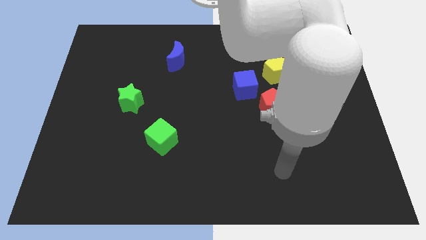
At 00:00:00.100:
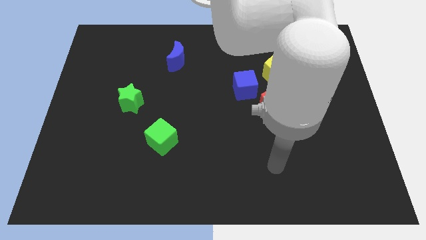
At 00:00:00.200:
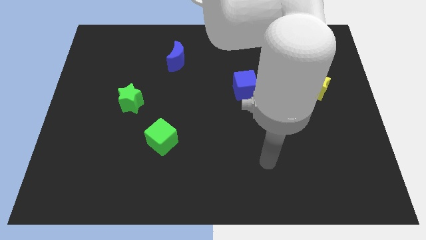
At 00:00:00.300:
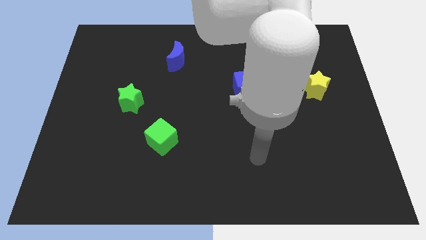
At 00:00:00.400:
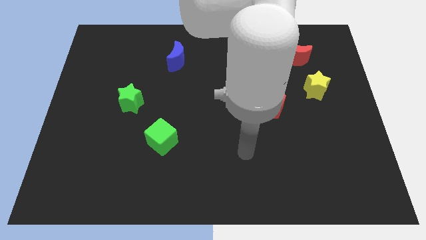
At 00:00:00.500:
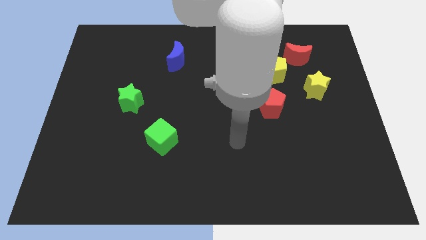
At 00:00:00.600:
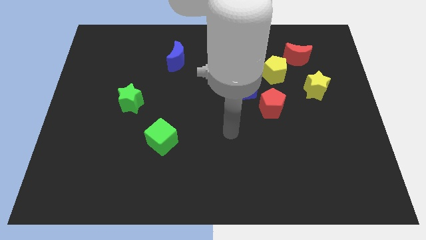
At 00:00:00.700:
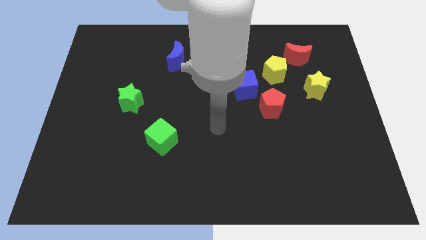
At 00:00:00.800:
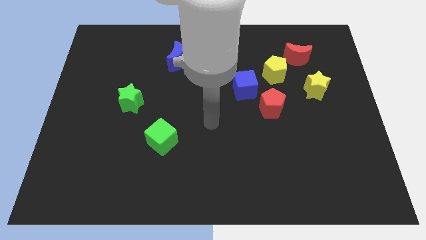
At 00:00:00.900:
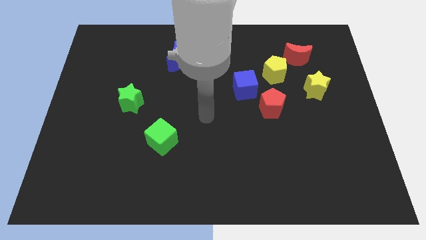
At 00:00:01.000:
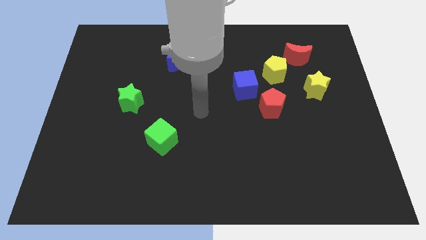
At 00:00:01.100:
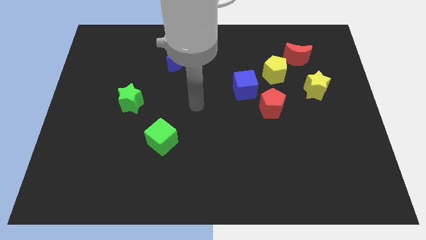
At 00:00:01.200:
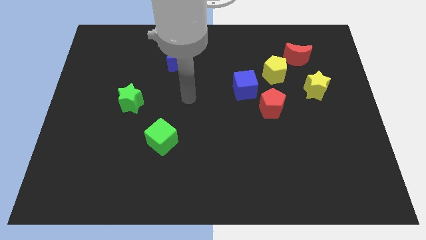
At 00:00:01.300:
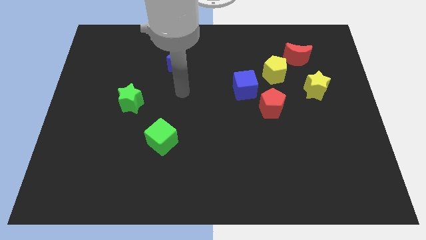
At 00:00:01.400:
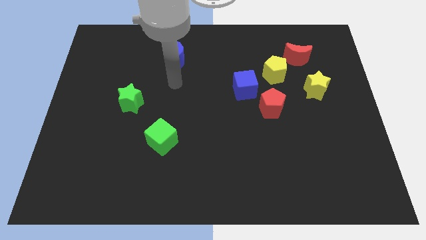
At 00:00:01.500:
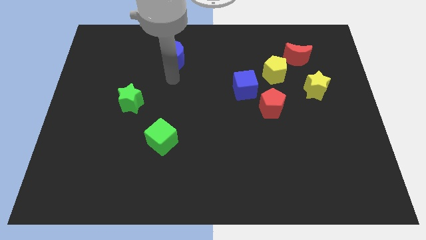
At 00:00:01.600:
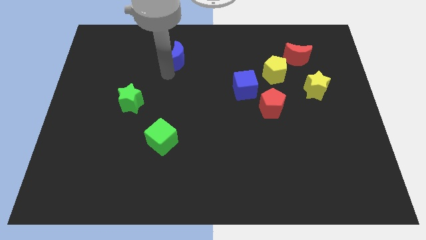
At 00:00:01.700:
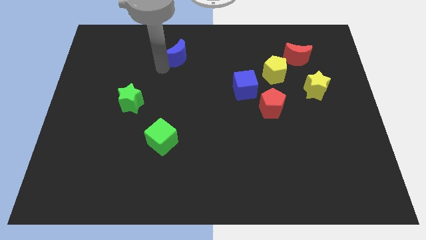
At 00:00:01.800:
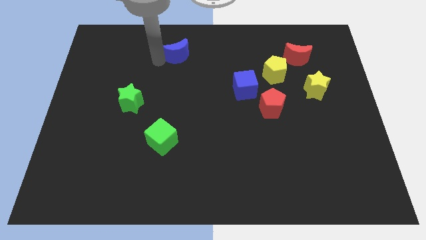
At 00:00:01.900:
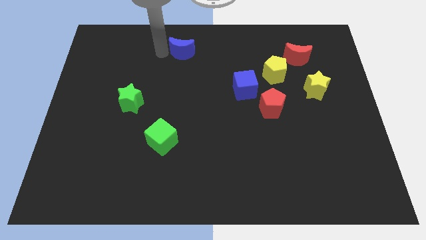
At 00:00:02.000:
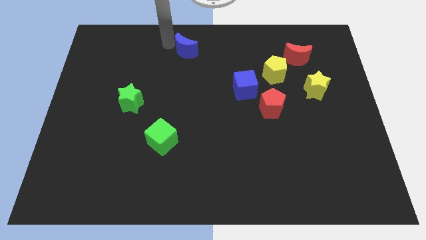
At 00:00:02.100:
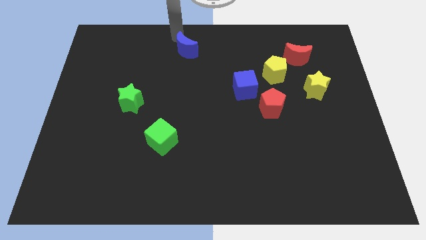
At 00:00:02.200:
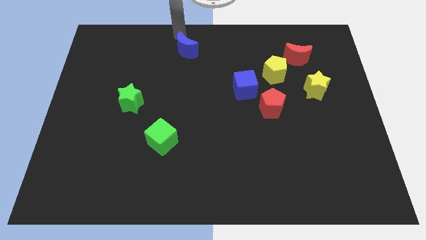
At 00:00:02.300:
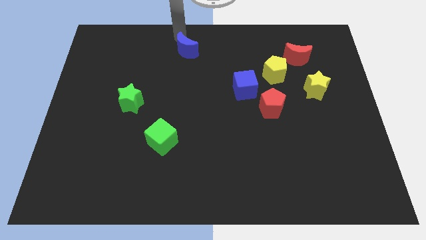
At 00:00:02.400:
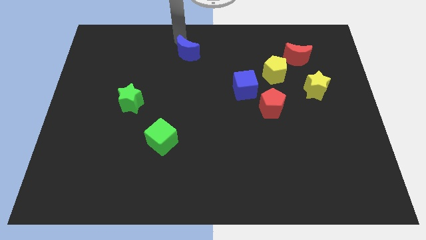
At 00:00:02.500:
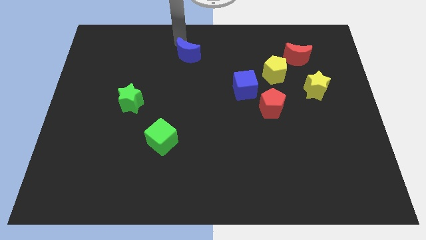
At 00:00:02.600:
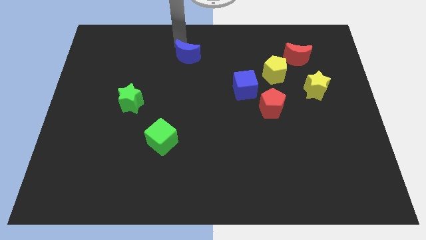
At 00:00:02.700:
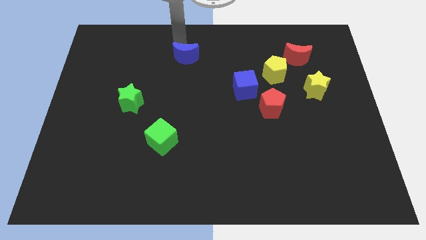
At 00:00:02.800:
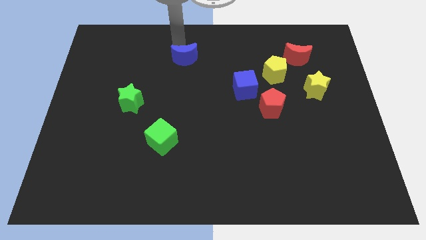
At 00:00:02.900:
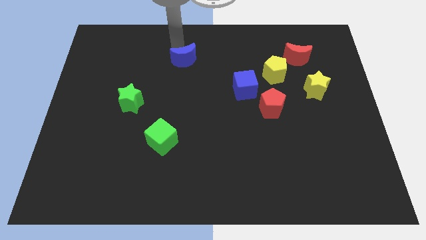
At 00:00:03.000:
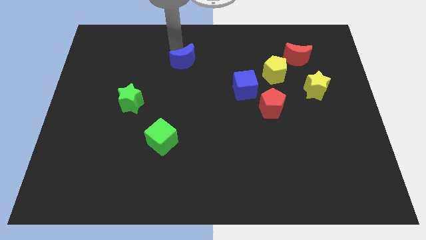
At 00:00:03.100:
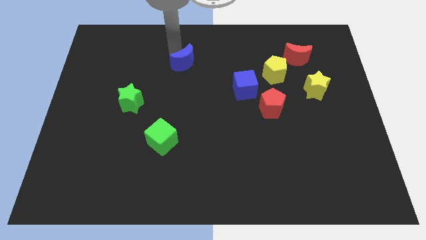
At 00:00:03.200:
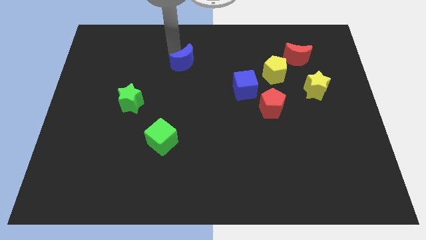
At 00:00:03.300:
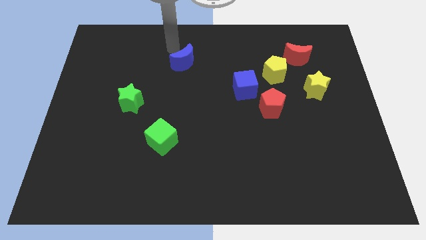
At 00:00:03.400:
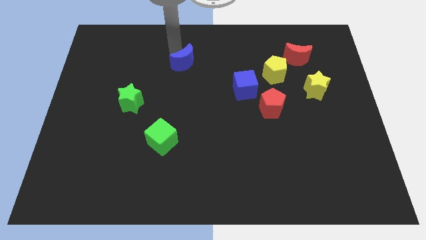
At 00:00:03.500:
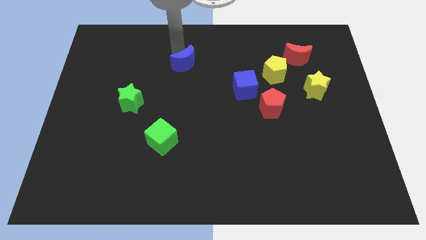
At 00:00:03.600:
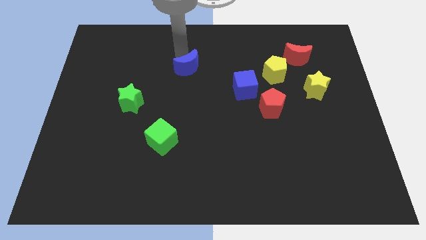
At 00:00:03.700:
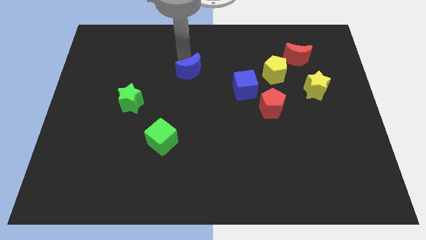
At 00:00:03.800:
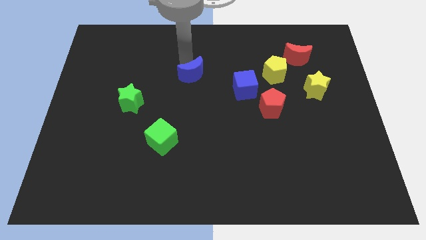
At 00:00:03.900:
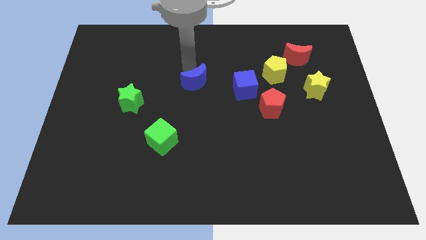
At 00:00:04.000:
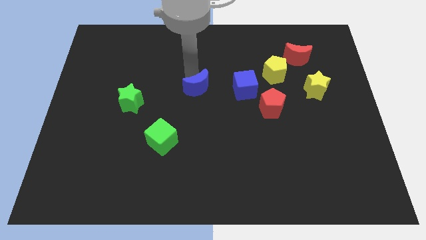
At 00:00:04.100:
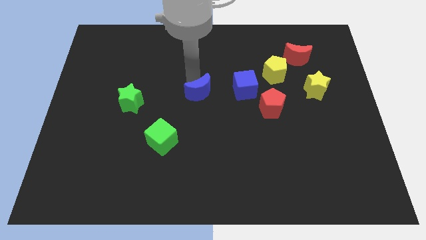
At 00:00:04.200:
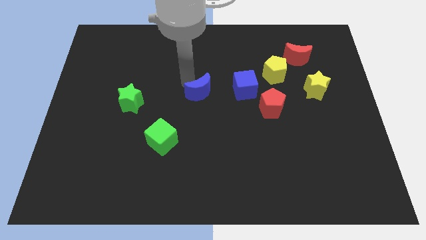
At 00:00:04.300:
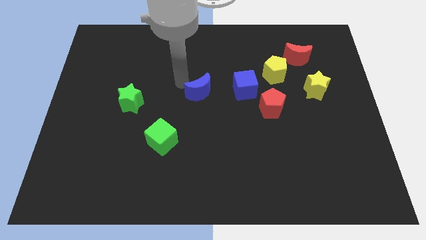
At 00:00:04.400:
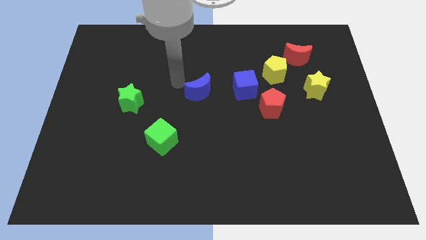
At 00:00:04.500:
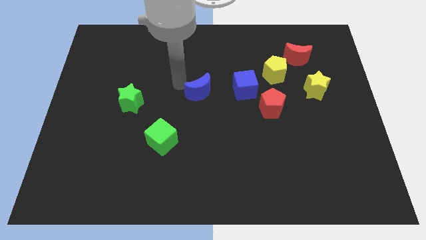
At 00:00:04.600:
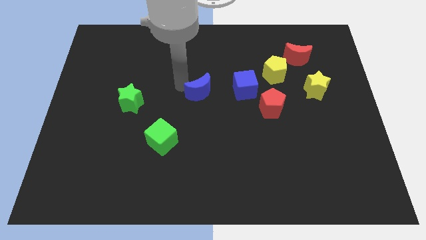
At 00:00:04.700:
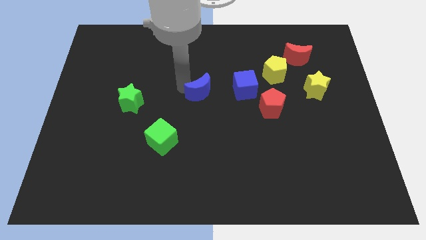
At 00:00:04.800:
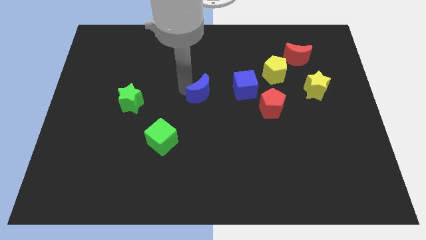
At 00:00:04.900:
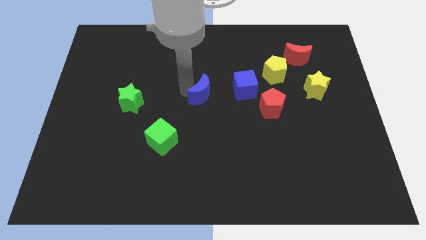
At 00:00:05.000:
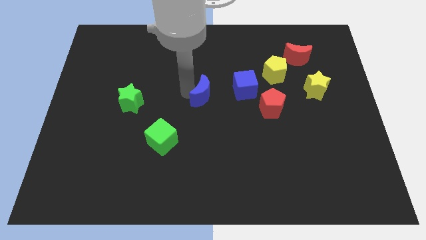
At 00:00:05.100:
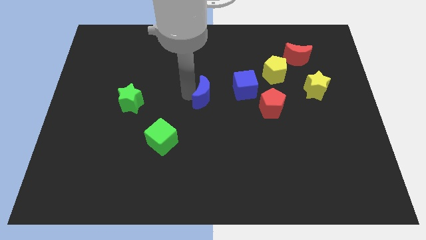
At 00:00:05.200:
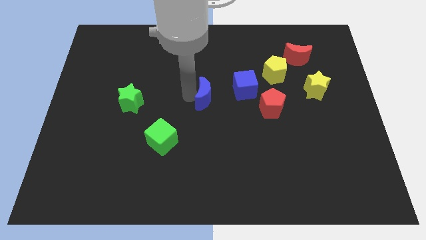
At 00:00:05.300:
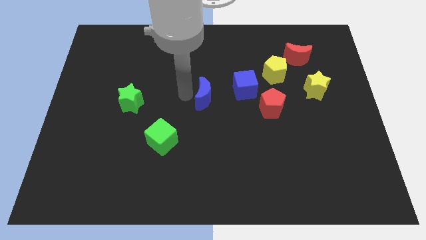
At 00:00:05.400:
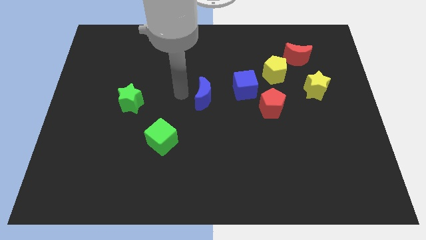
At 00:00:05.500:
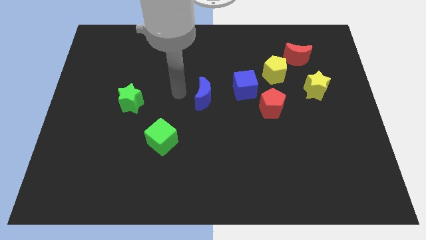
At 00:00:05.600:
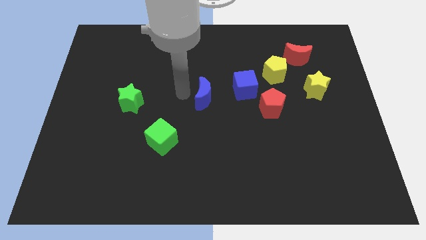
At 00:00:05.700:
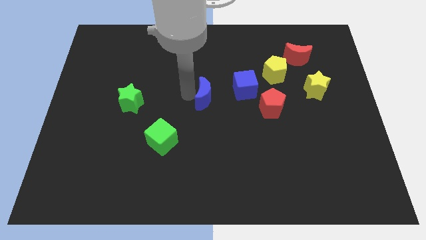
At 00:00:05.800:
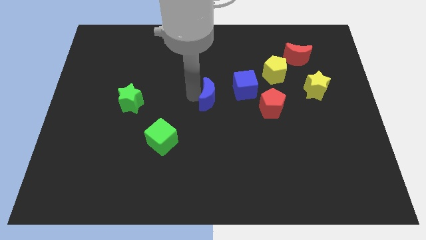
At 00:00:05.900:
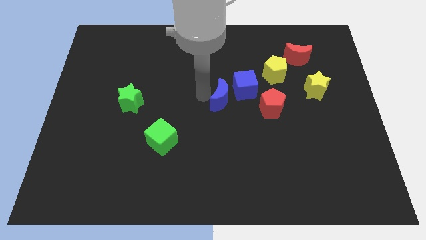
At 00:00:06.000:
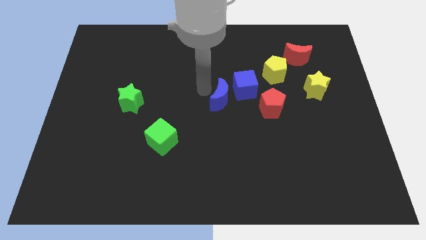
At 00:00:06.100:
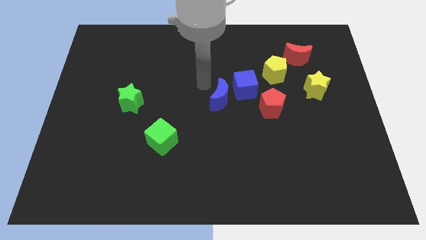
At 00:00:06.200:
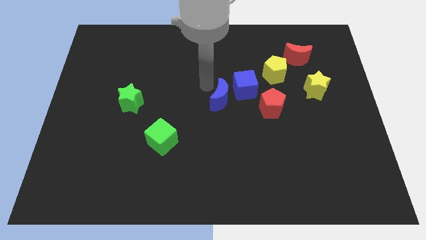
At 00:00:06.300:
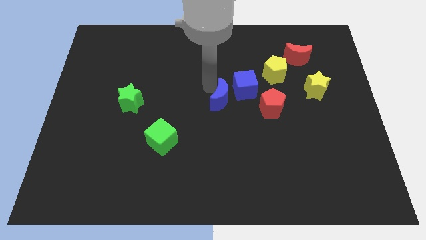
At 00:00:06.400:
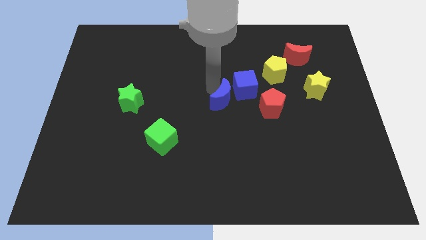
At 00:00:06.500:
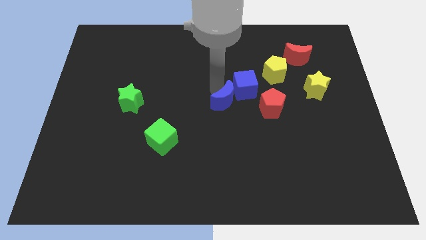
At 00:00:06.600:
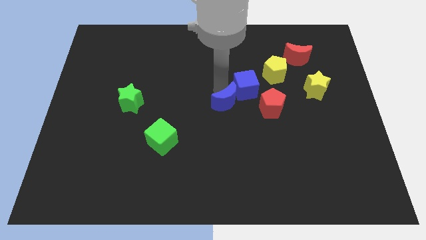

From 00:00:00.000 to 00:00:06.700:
push the blue moon to the bottom of the blue cube
